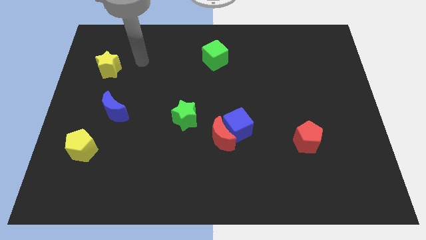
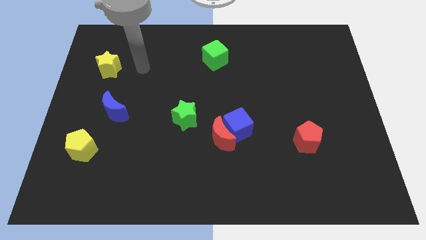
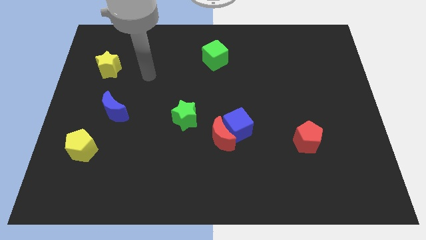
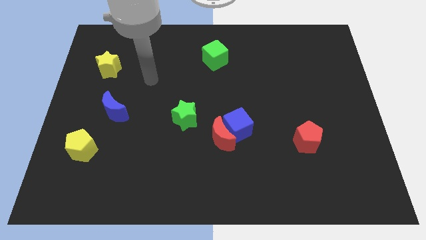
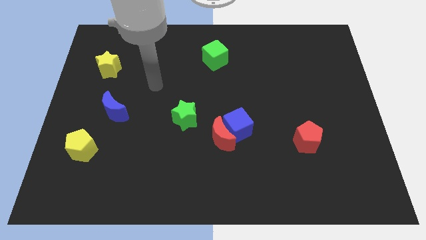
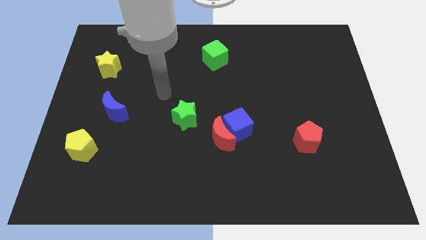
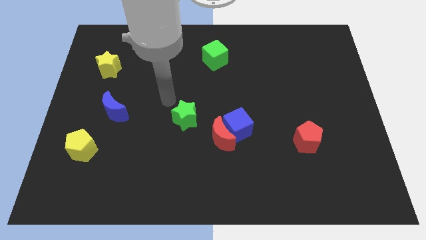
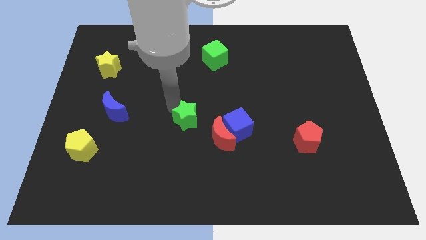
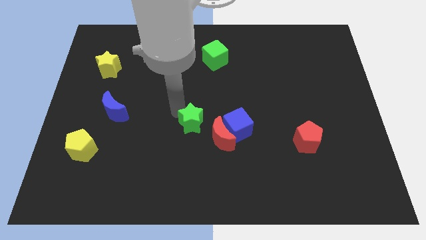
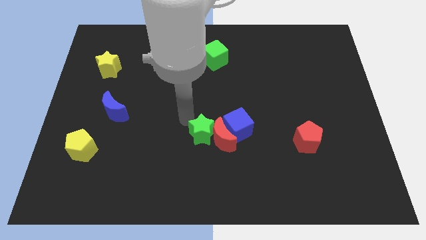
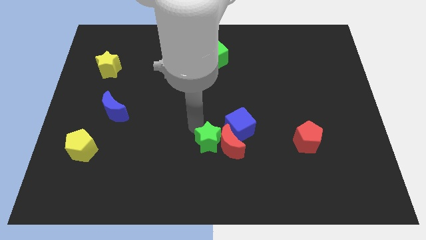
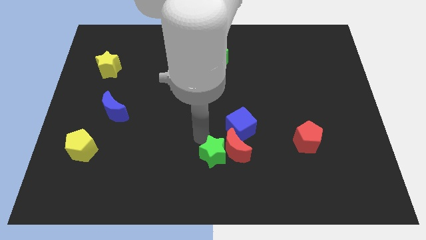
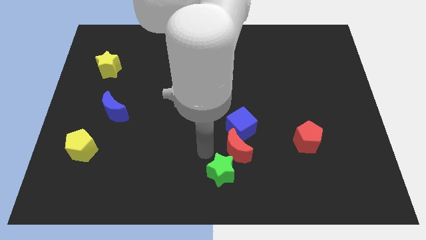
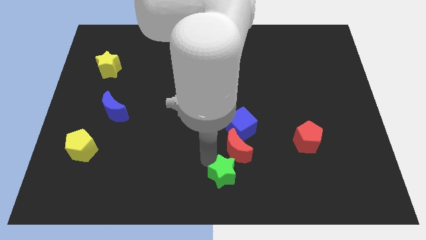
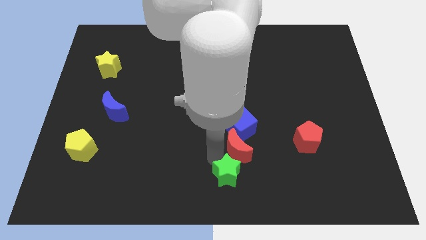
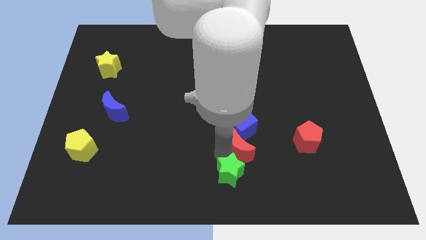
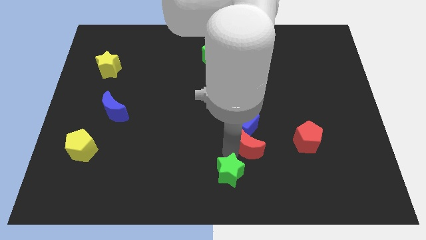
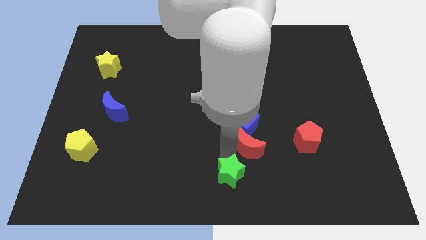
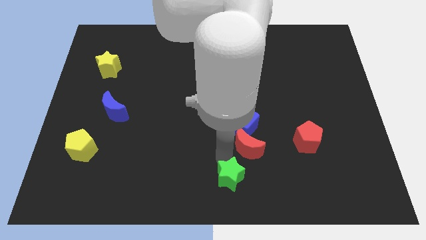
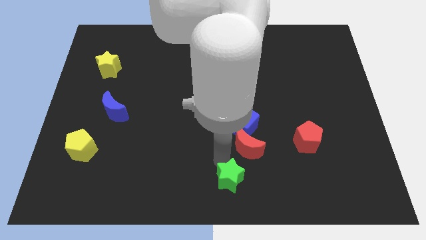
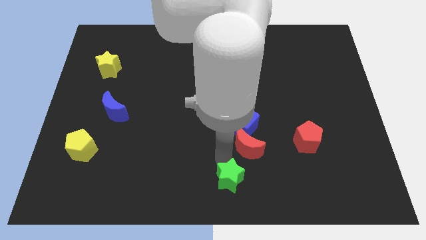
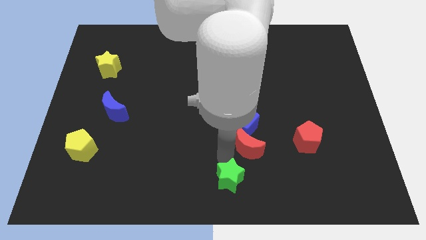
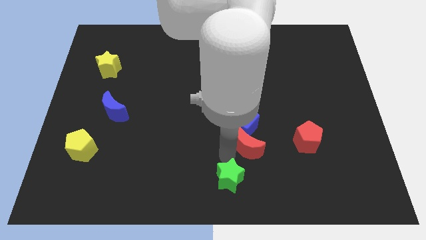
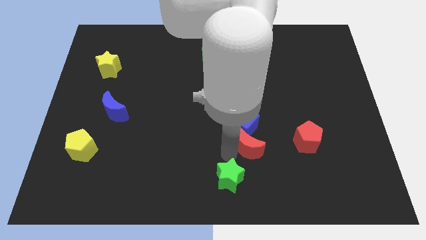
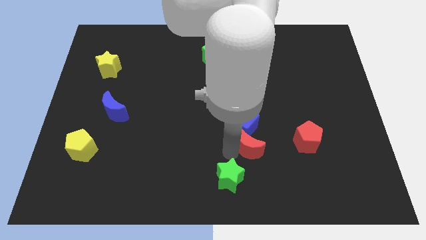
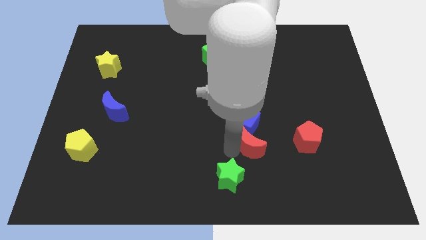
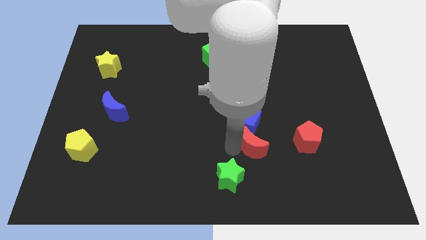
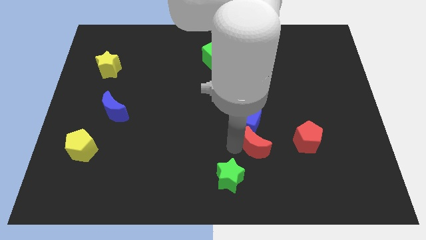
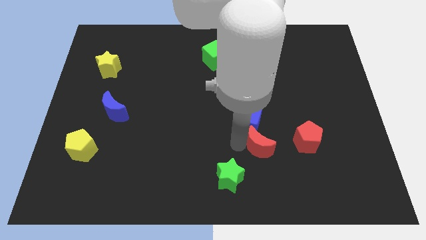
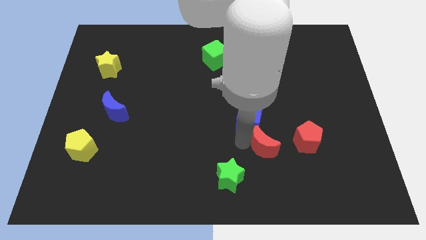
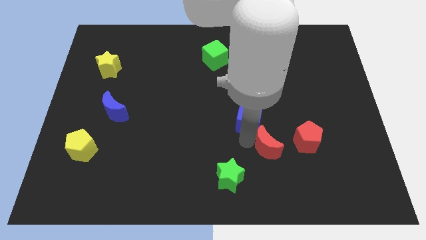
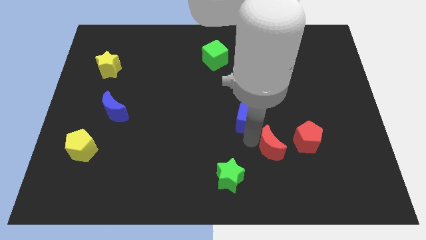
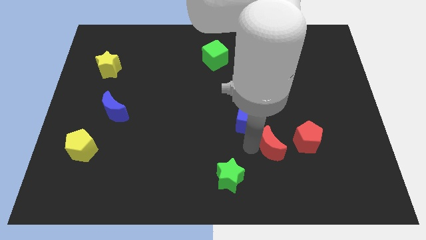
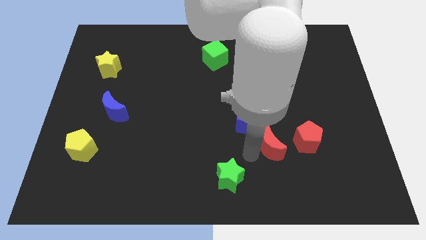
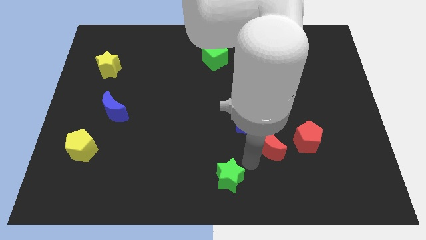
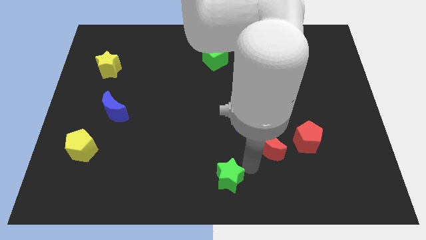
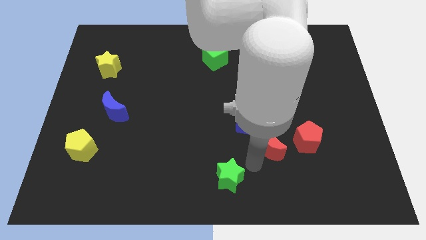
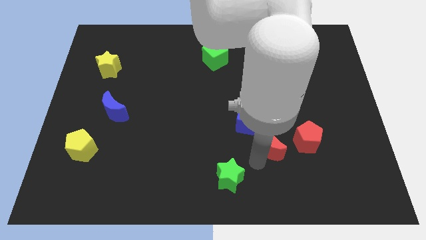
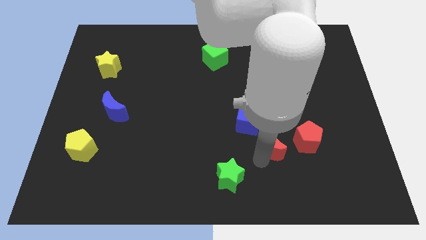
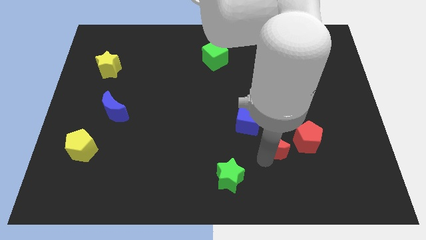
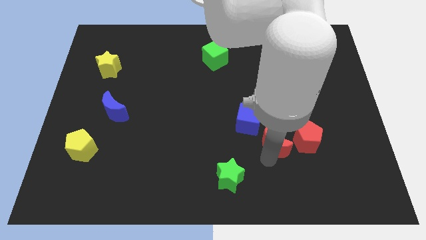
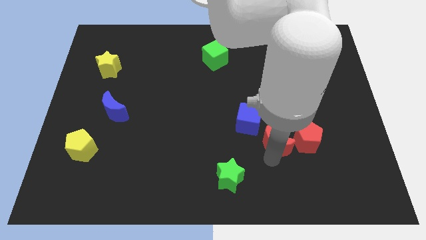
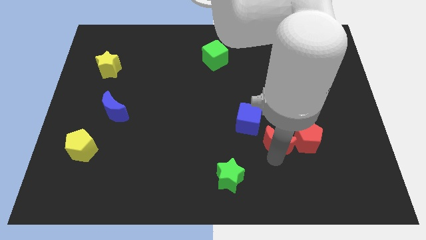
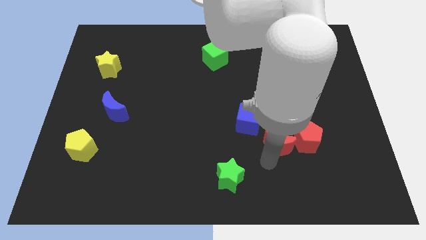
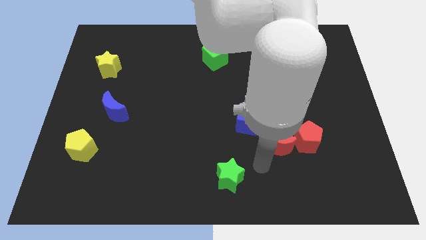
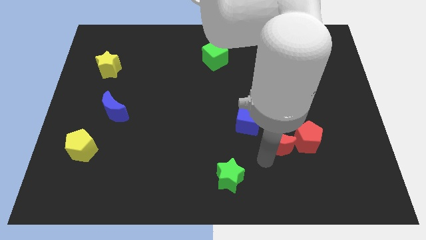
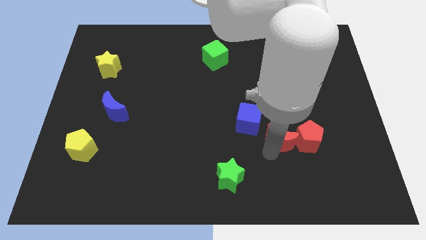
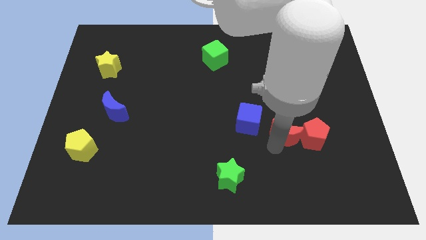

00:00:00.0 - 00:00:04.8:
slide the red moon right of the blue cube

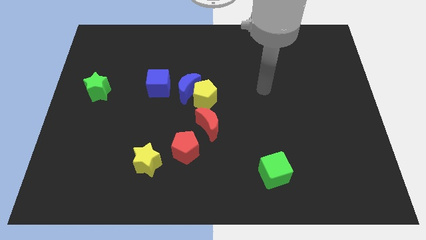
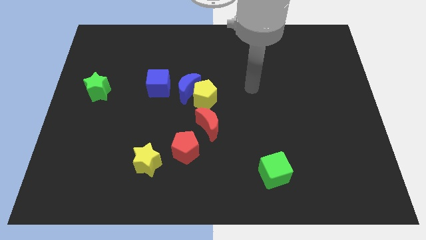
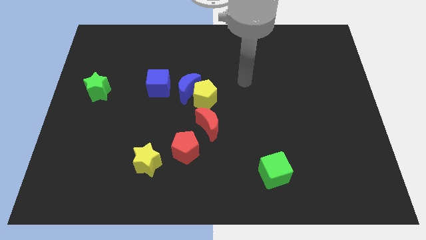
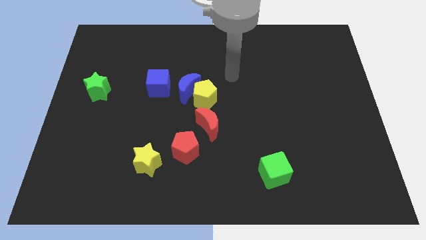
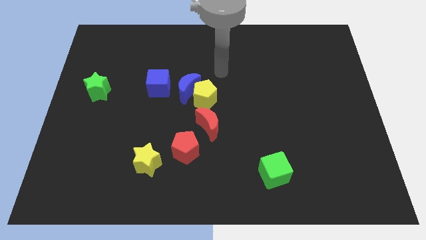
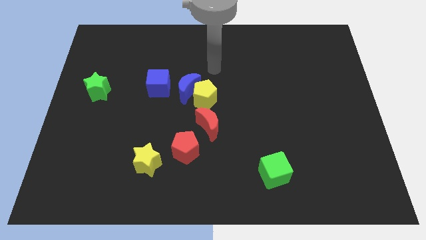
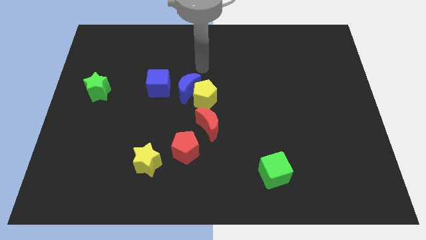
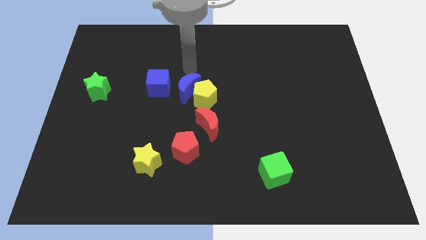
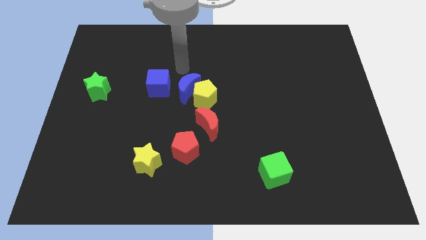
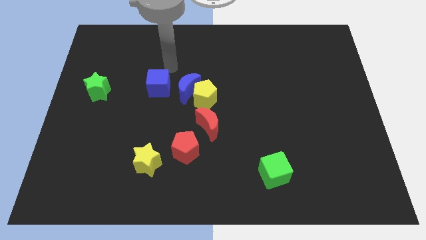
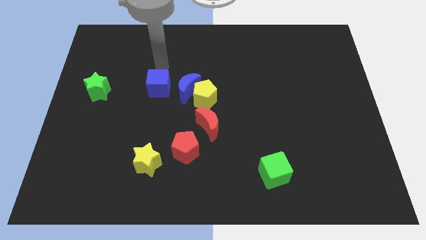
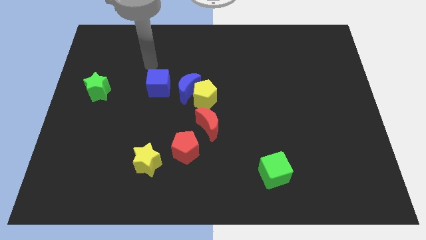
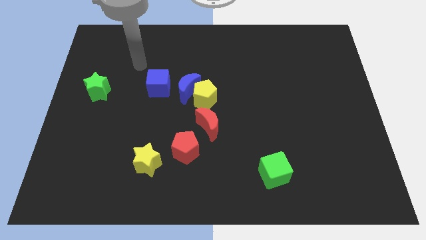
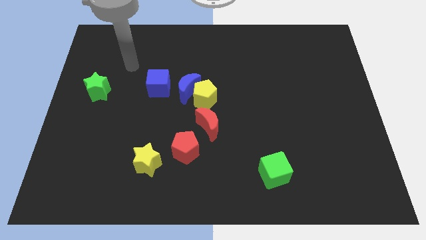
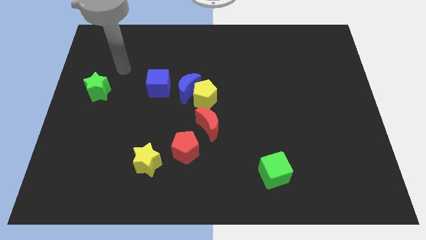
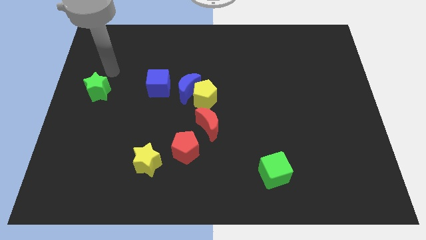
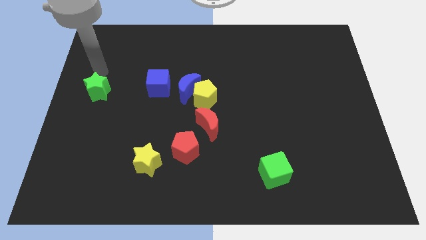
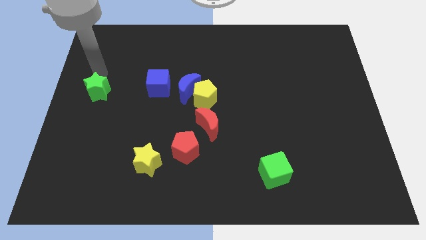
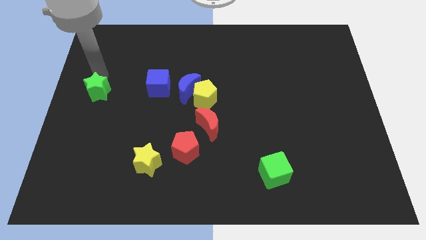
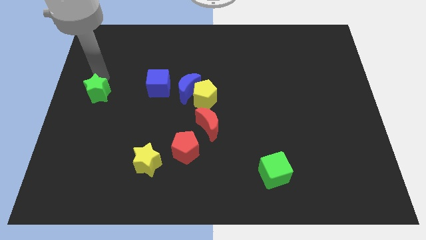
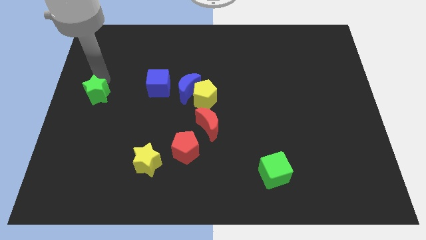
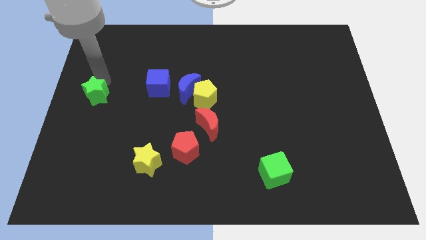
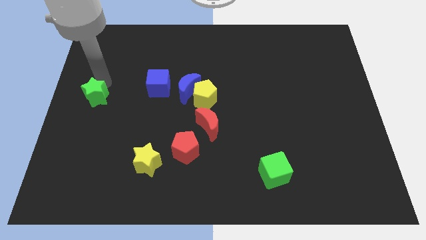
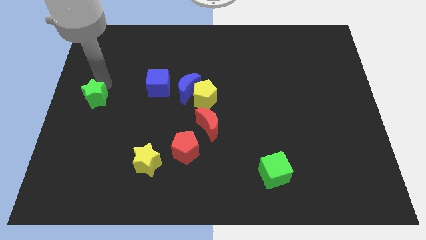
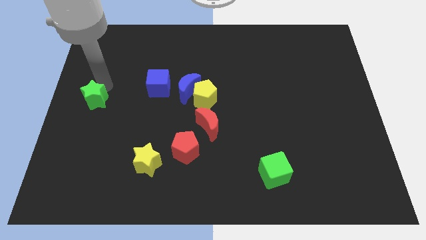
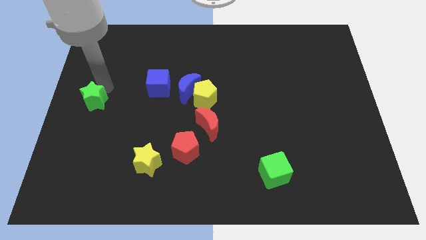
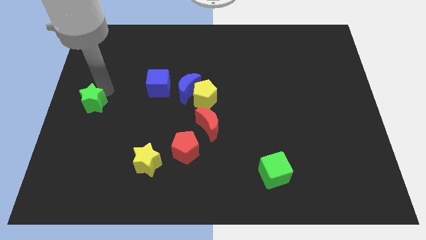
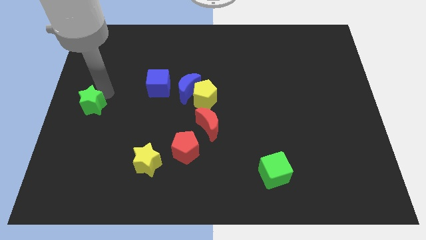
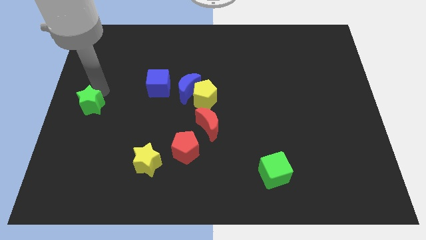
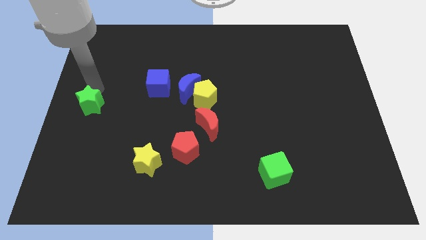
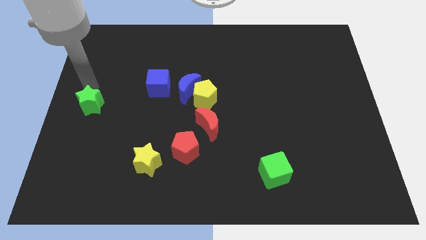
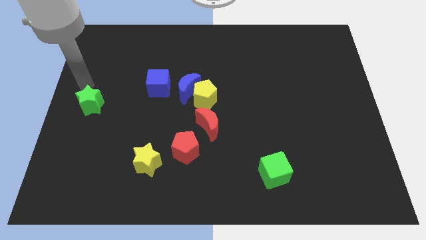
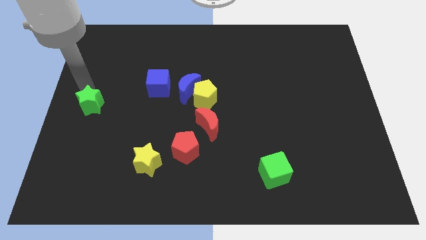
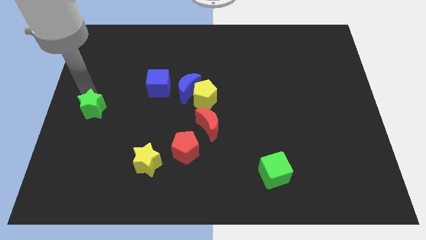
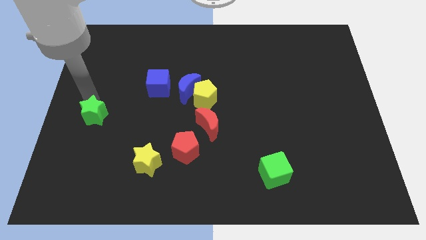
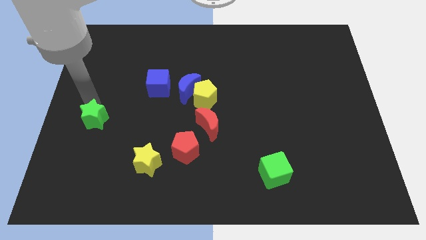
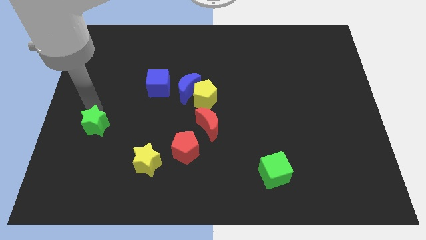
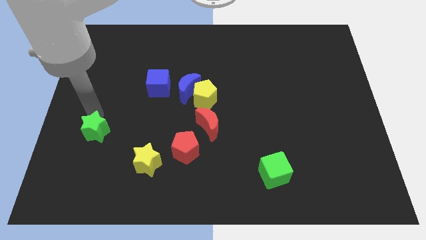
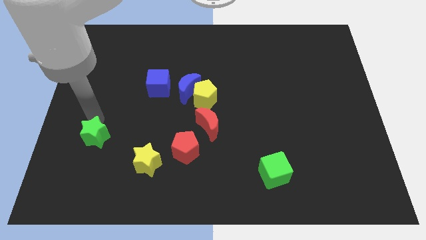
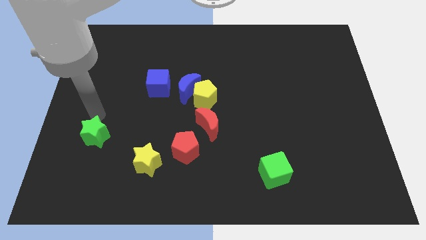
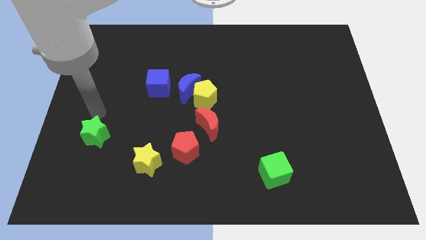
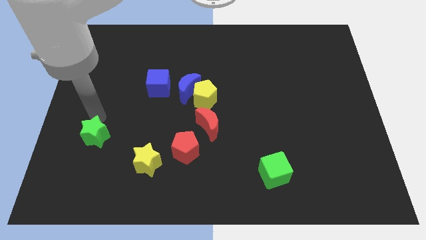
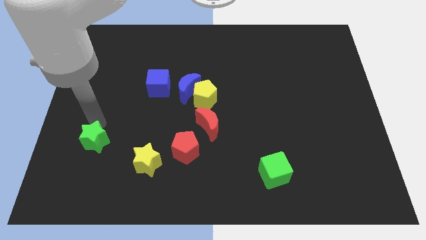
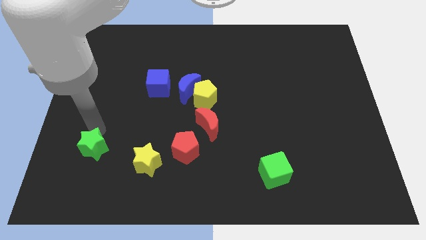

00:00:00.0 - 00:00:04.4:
slide the green star to the left side of the yellow star
